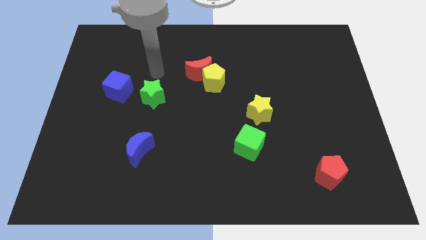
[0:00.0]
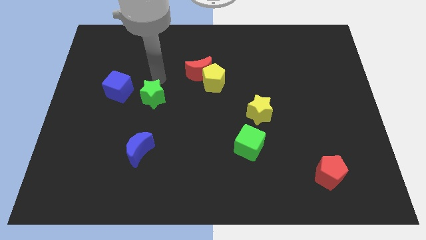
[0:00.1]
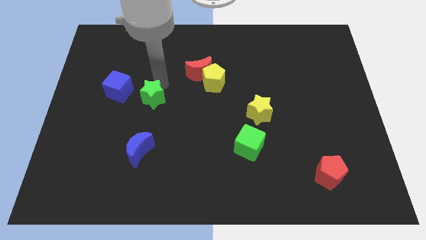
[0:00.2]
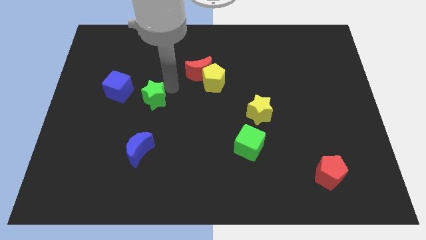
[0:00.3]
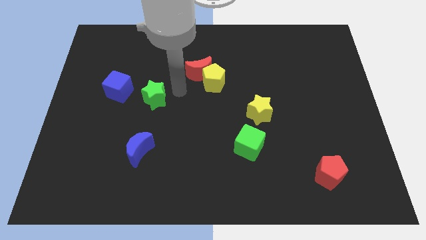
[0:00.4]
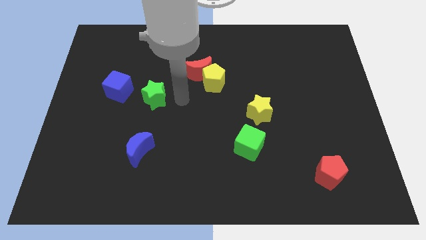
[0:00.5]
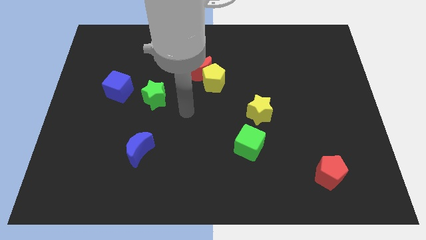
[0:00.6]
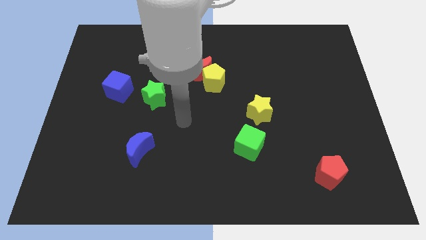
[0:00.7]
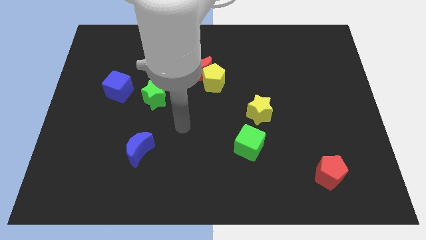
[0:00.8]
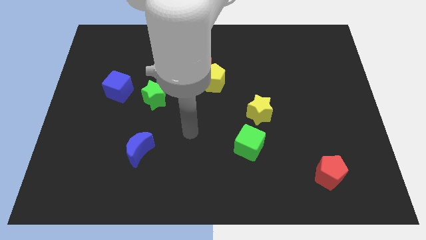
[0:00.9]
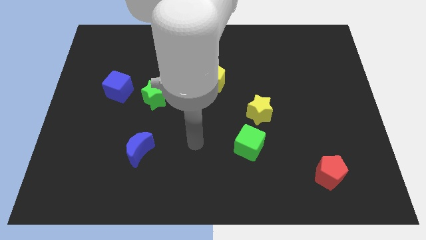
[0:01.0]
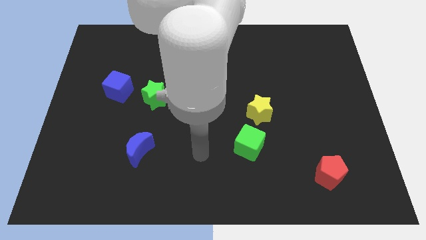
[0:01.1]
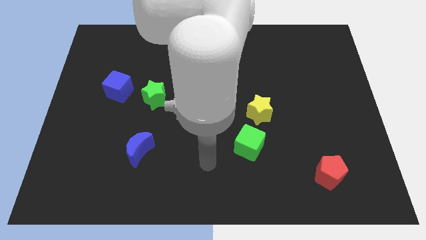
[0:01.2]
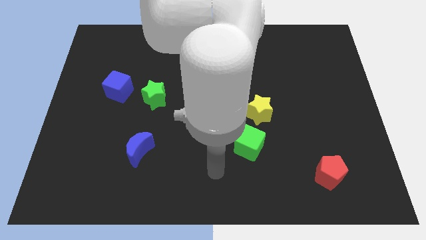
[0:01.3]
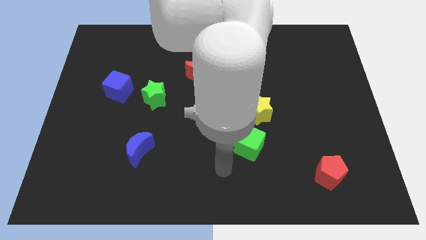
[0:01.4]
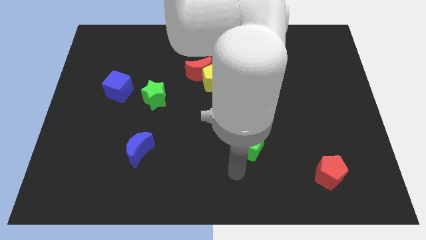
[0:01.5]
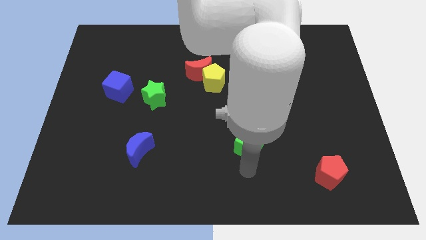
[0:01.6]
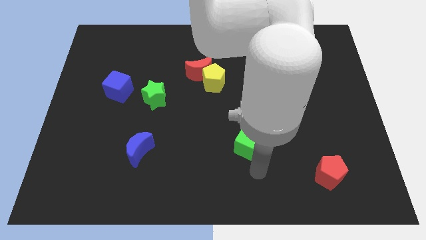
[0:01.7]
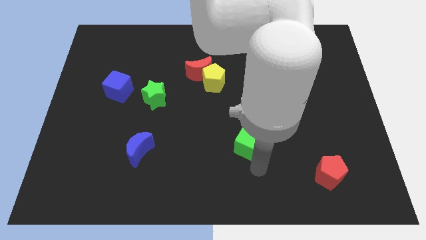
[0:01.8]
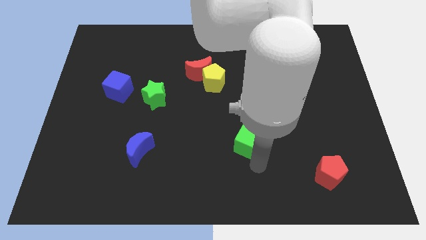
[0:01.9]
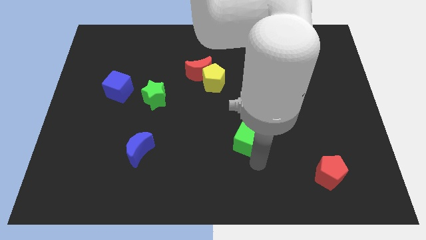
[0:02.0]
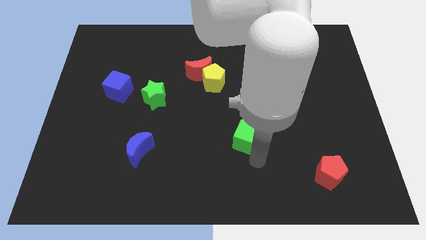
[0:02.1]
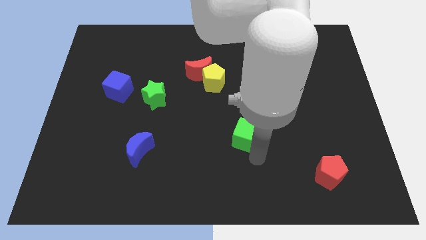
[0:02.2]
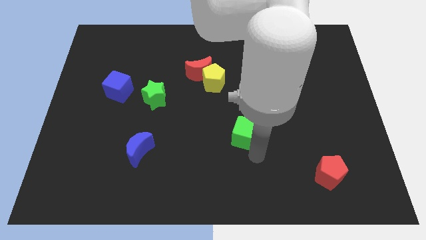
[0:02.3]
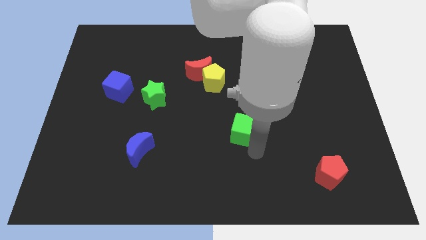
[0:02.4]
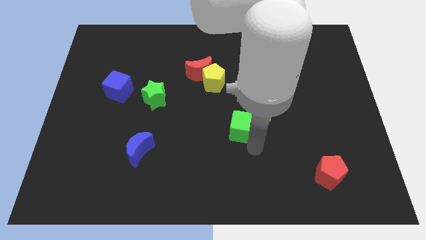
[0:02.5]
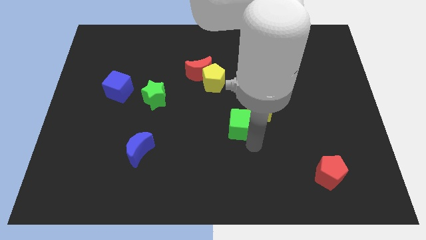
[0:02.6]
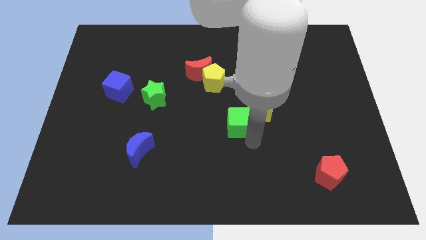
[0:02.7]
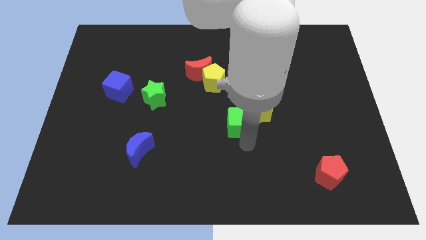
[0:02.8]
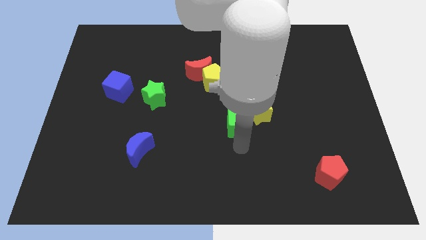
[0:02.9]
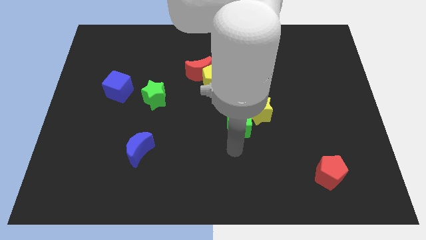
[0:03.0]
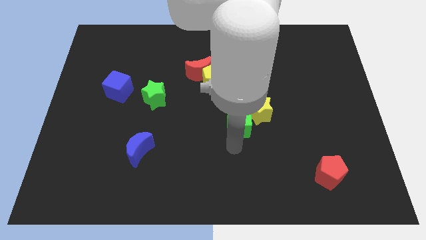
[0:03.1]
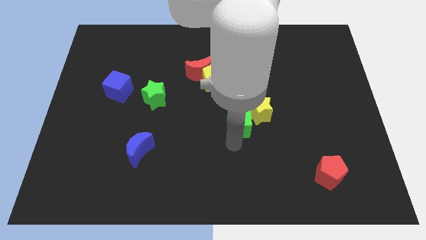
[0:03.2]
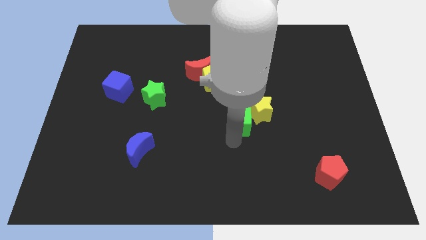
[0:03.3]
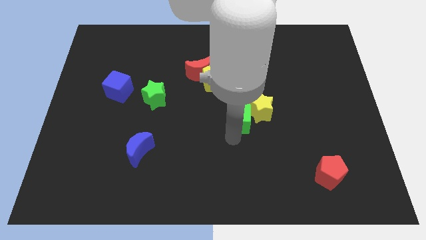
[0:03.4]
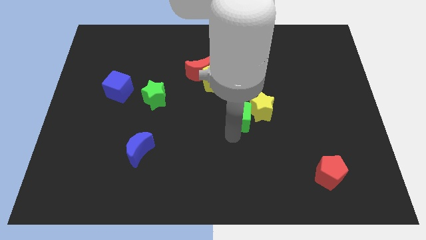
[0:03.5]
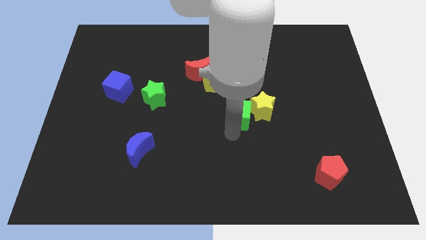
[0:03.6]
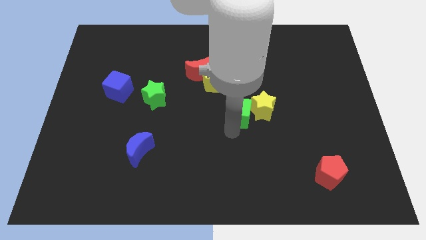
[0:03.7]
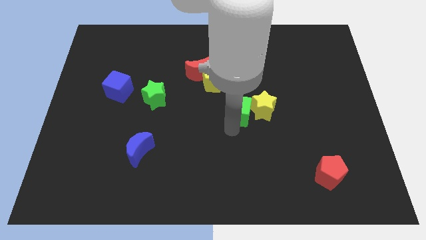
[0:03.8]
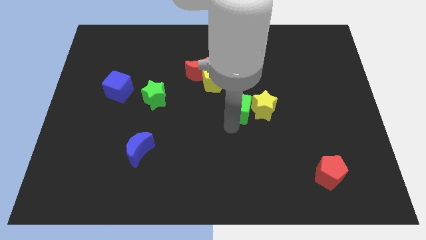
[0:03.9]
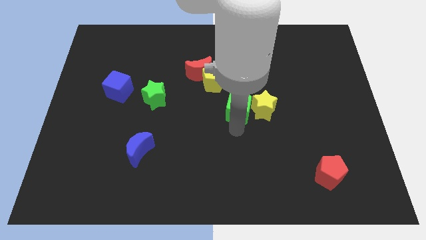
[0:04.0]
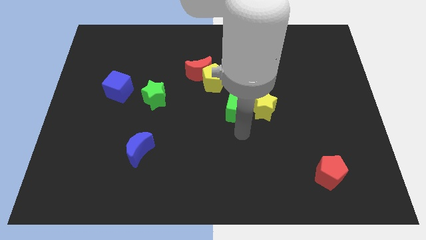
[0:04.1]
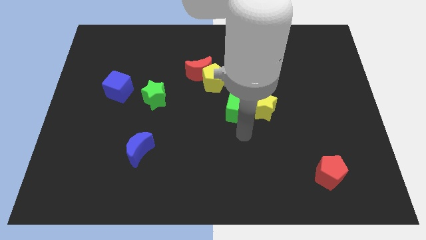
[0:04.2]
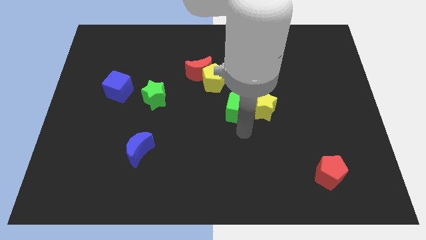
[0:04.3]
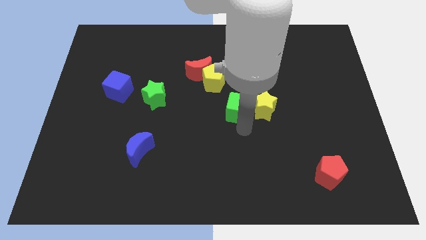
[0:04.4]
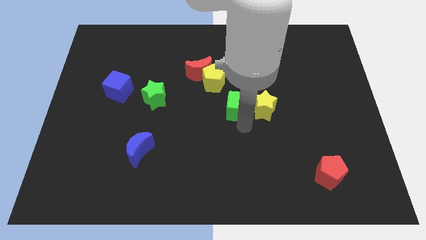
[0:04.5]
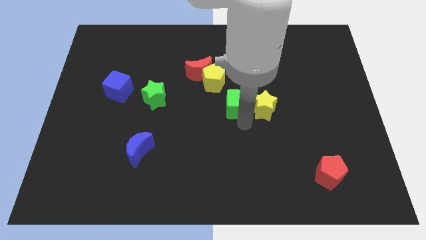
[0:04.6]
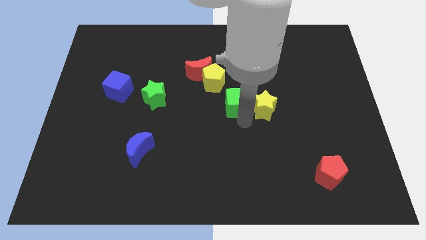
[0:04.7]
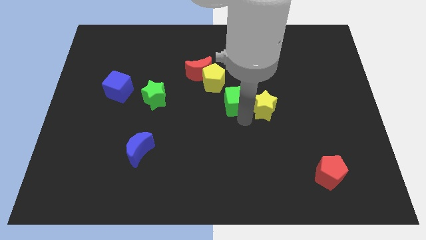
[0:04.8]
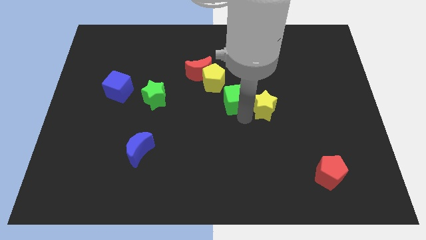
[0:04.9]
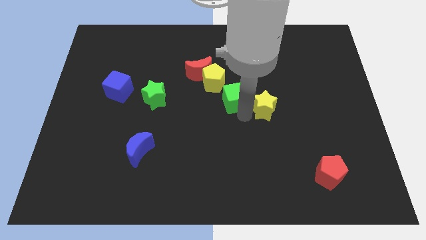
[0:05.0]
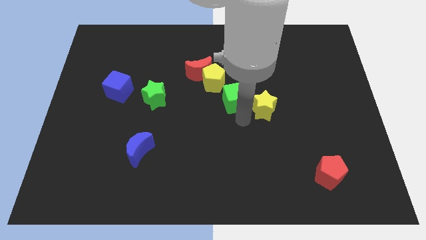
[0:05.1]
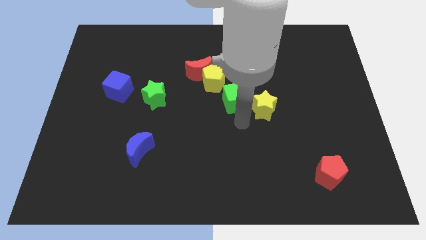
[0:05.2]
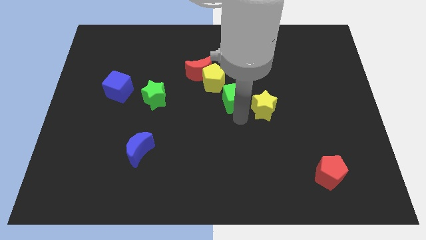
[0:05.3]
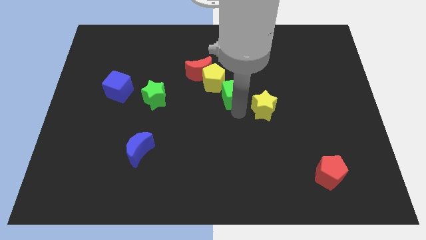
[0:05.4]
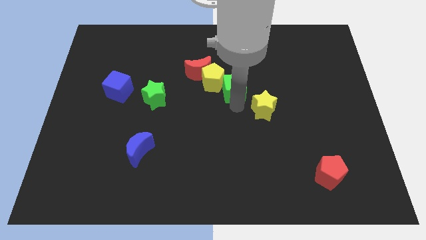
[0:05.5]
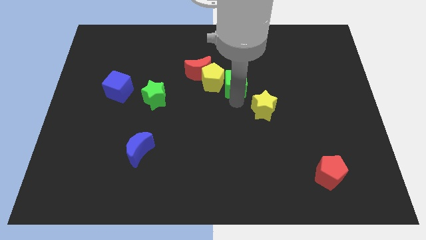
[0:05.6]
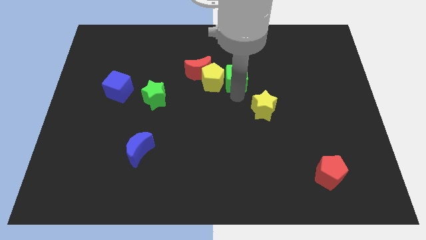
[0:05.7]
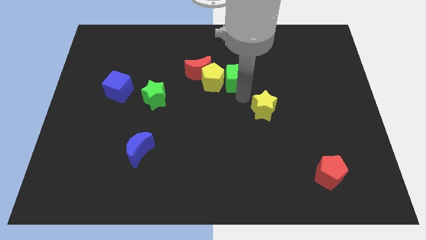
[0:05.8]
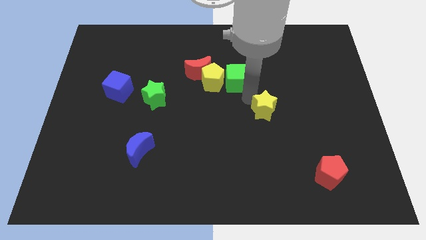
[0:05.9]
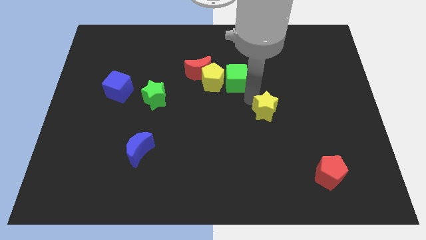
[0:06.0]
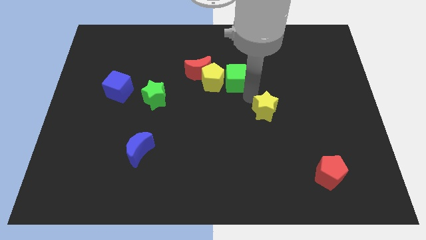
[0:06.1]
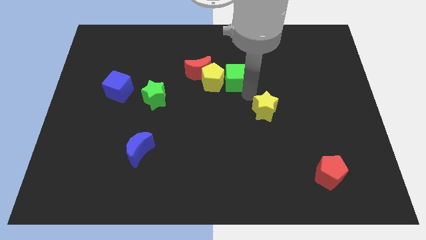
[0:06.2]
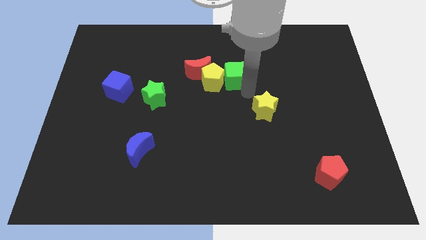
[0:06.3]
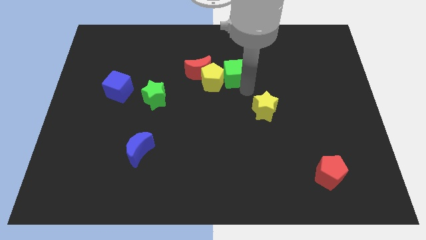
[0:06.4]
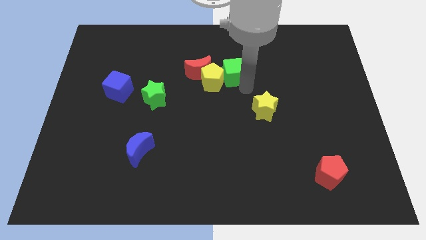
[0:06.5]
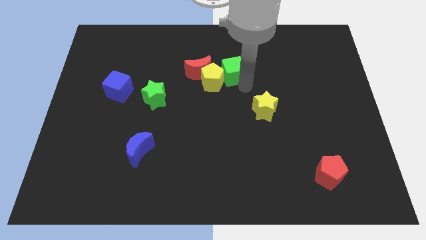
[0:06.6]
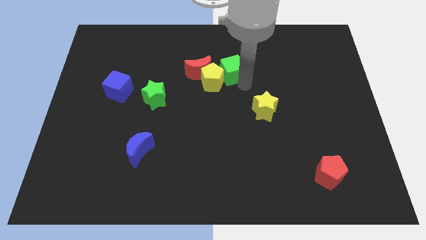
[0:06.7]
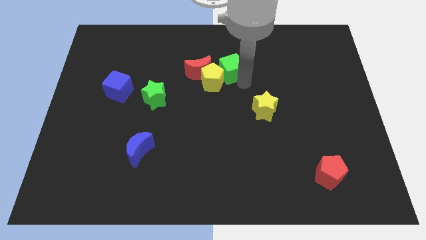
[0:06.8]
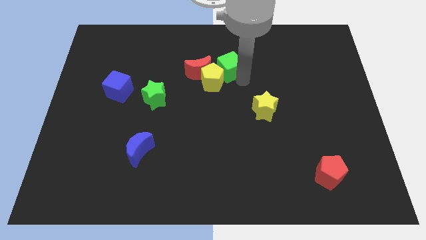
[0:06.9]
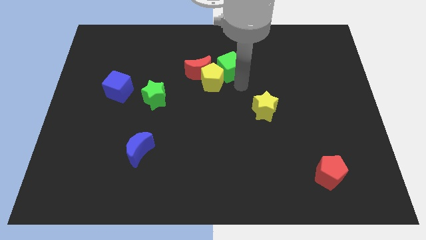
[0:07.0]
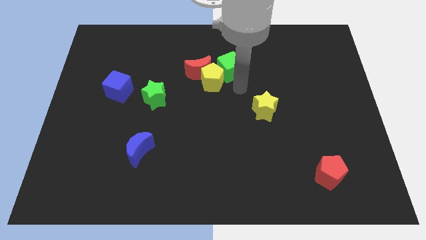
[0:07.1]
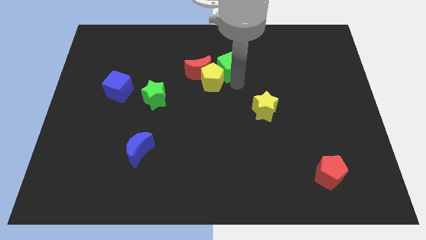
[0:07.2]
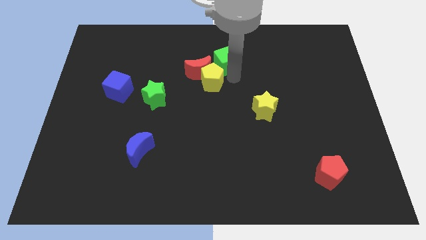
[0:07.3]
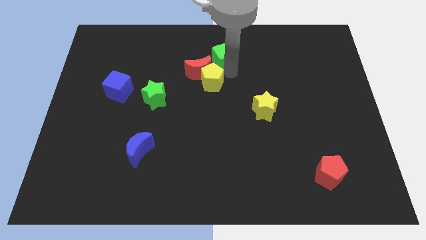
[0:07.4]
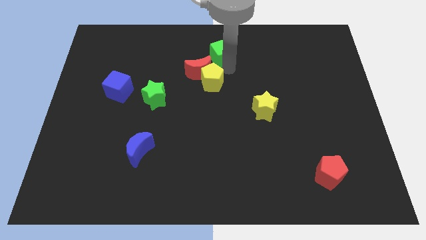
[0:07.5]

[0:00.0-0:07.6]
push the green cube to the top
